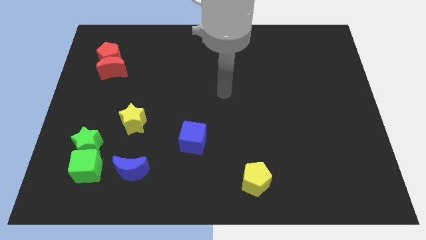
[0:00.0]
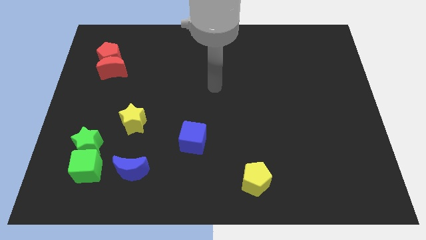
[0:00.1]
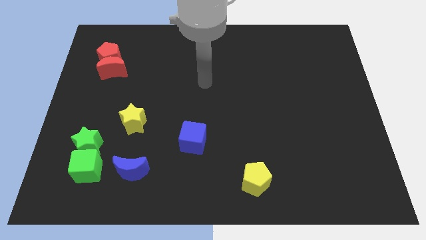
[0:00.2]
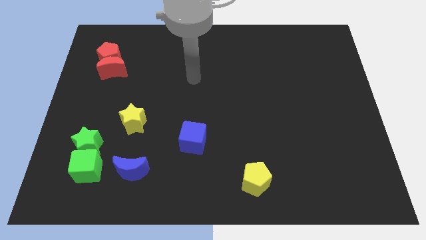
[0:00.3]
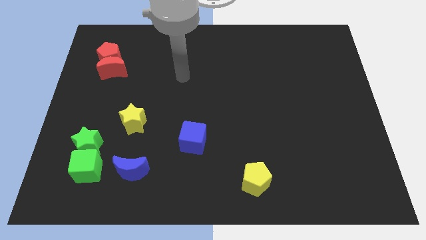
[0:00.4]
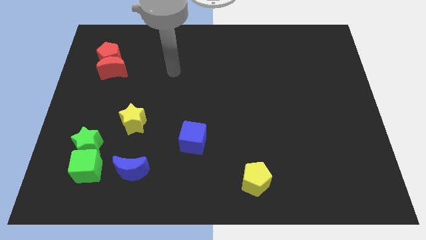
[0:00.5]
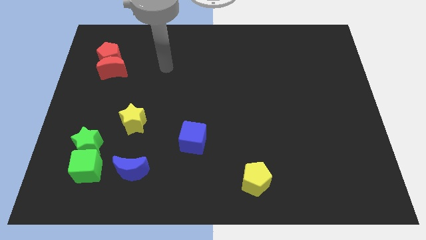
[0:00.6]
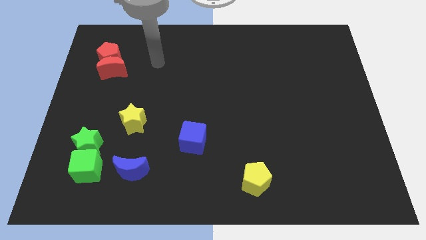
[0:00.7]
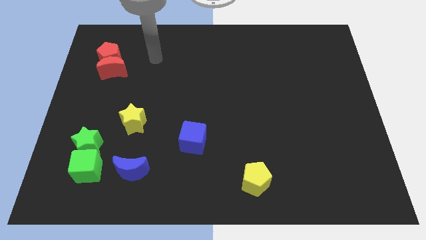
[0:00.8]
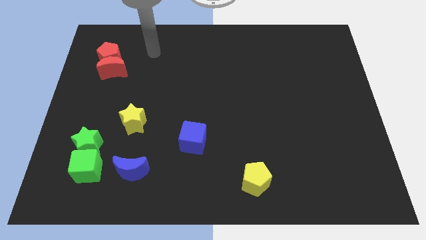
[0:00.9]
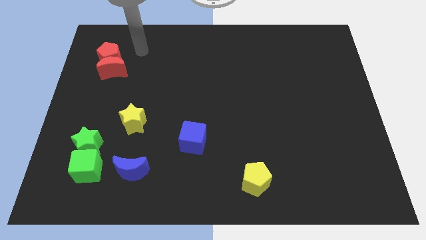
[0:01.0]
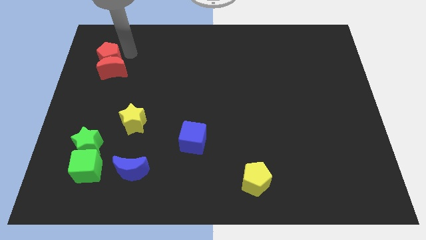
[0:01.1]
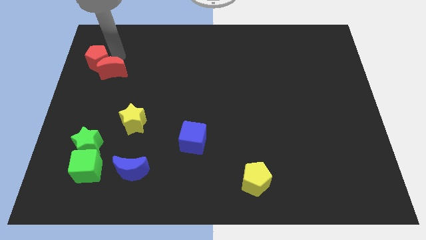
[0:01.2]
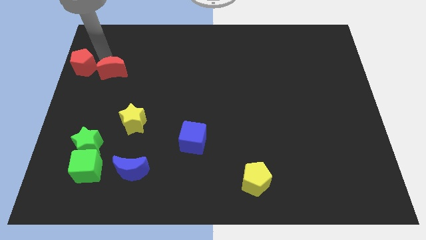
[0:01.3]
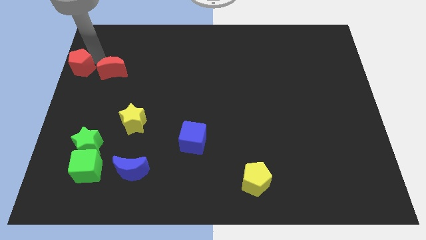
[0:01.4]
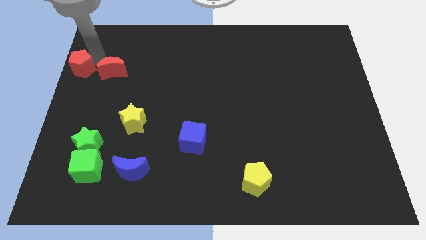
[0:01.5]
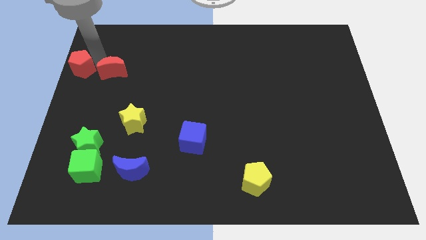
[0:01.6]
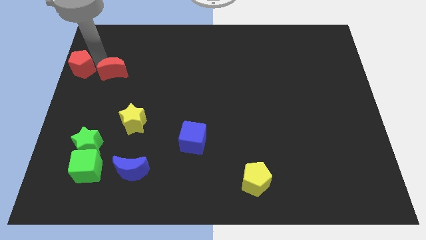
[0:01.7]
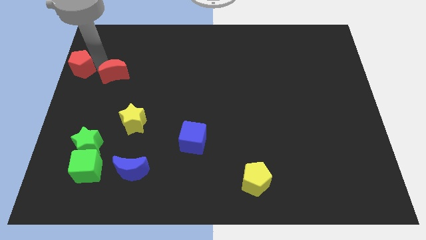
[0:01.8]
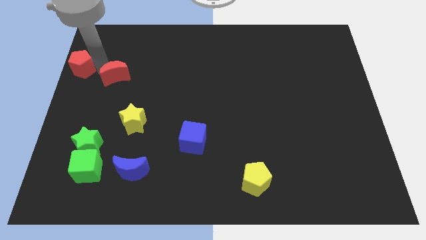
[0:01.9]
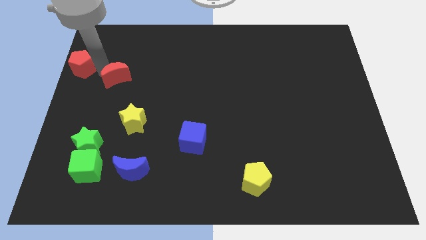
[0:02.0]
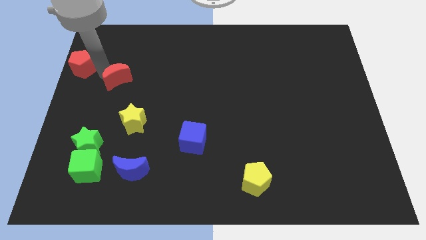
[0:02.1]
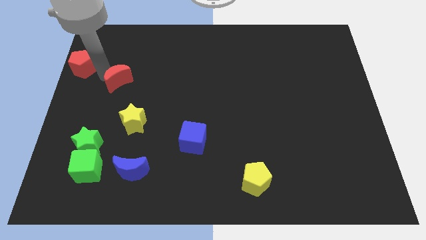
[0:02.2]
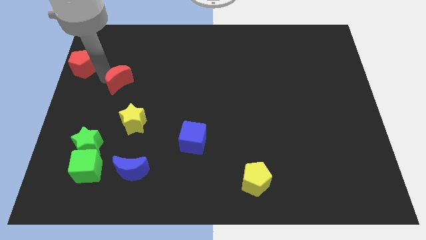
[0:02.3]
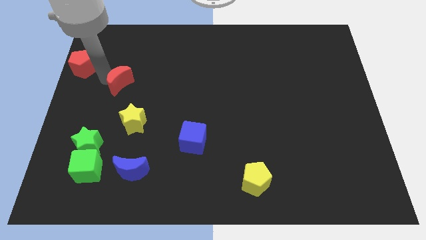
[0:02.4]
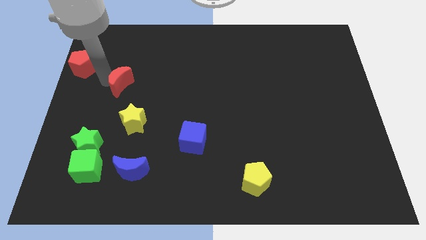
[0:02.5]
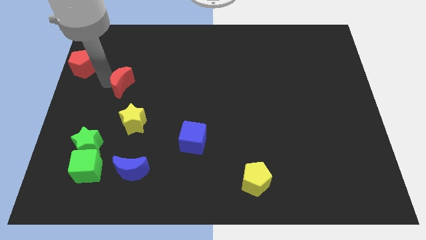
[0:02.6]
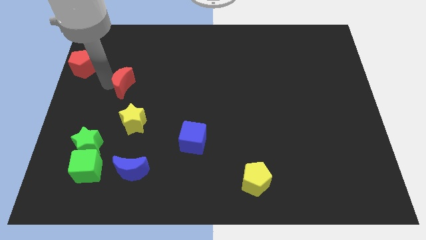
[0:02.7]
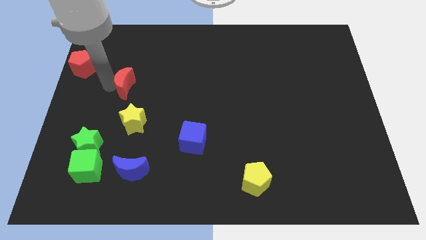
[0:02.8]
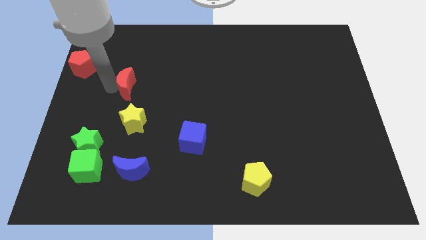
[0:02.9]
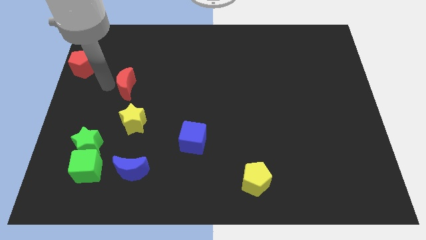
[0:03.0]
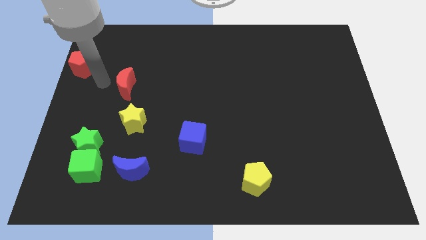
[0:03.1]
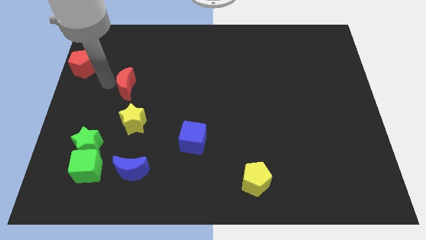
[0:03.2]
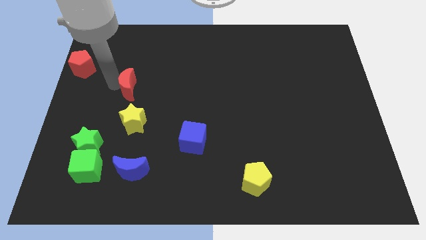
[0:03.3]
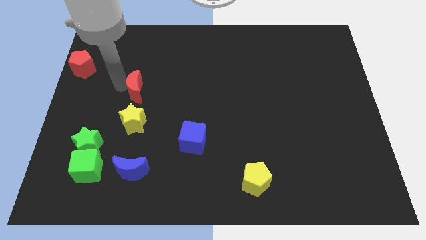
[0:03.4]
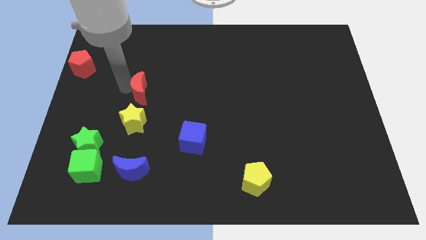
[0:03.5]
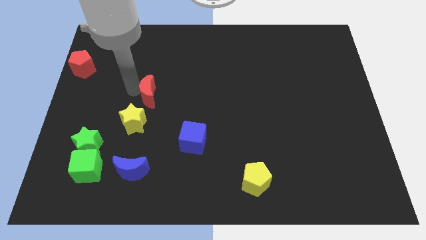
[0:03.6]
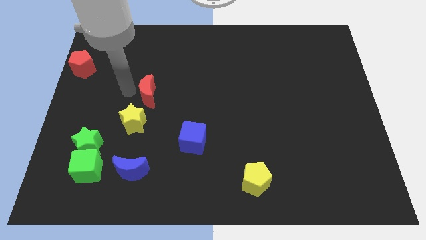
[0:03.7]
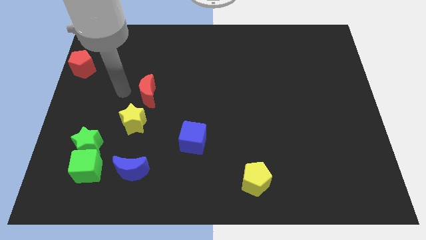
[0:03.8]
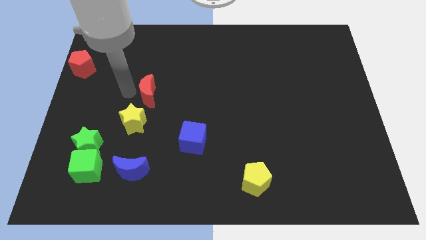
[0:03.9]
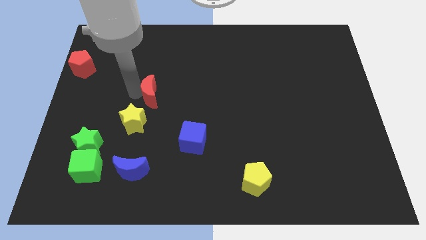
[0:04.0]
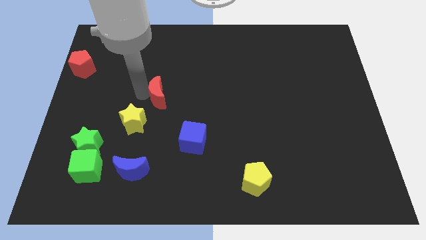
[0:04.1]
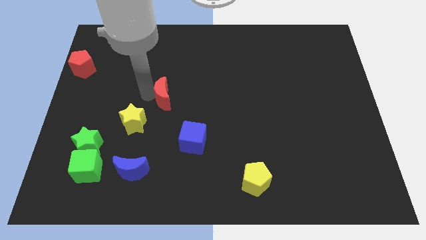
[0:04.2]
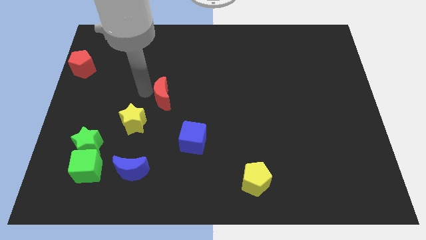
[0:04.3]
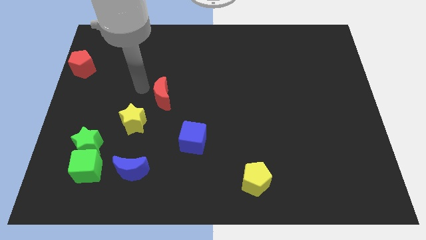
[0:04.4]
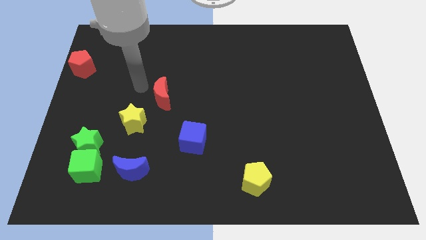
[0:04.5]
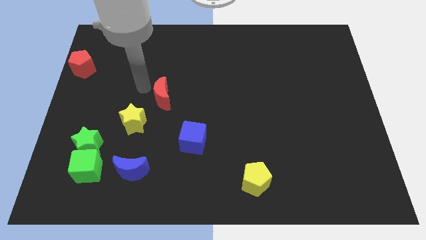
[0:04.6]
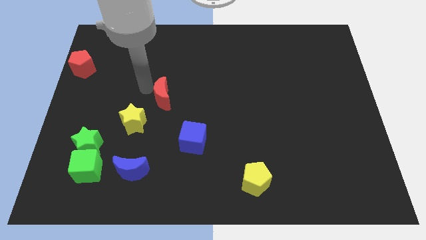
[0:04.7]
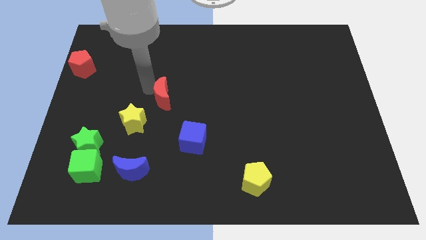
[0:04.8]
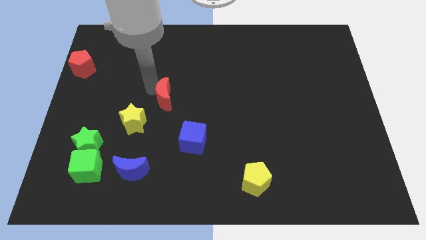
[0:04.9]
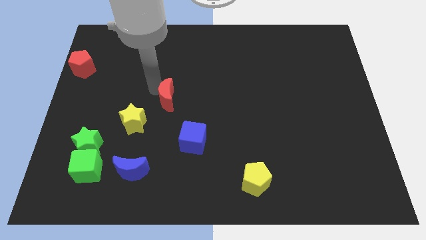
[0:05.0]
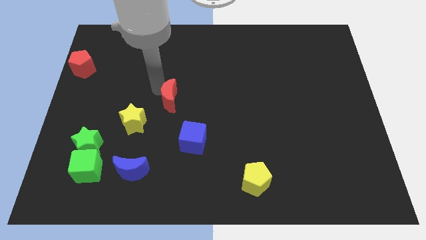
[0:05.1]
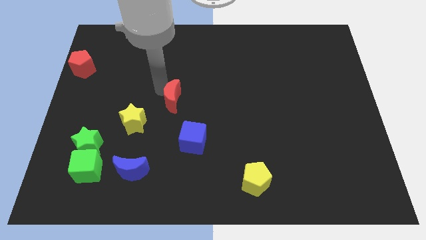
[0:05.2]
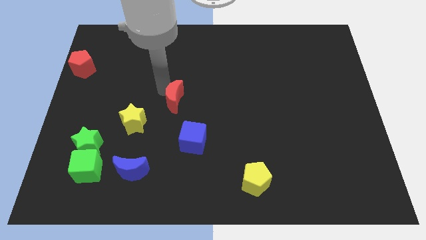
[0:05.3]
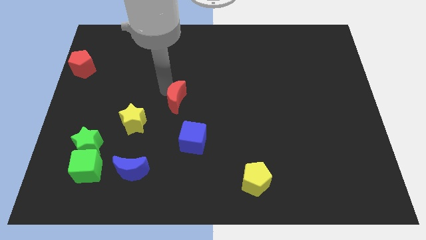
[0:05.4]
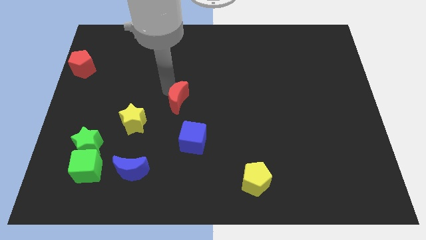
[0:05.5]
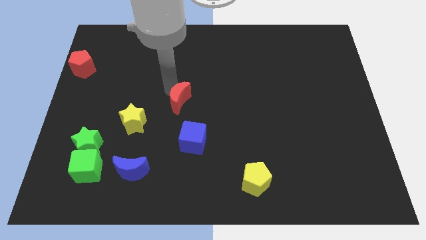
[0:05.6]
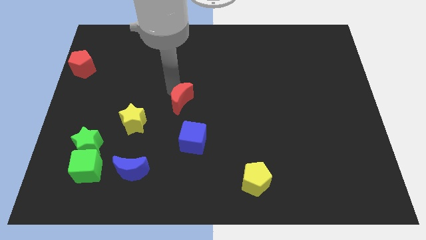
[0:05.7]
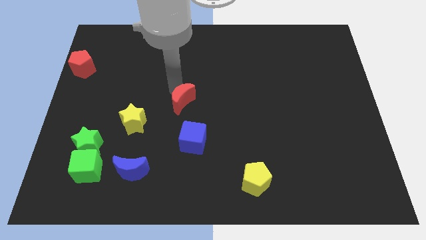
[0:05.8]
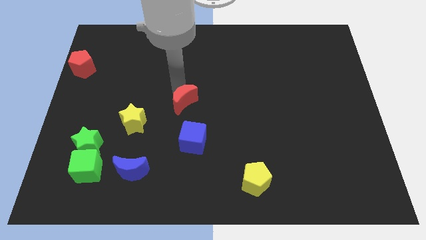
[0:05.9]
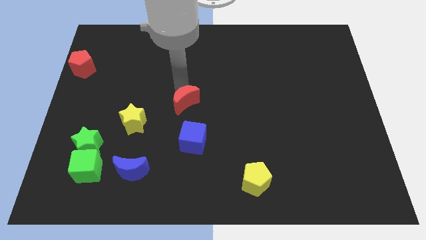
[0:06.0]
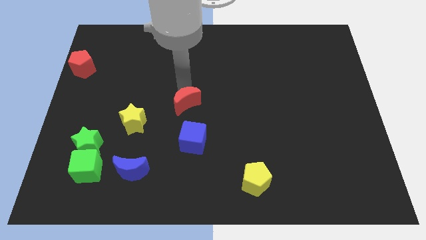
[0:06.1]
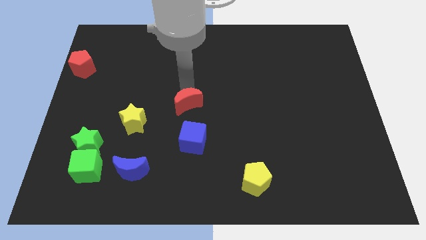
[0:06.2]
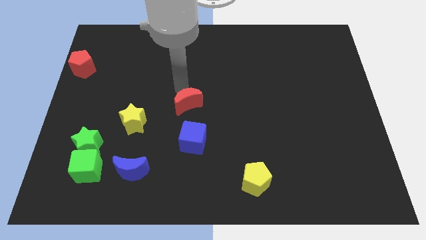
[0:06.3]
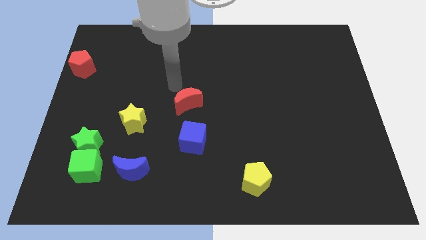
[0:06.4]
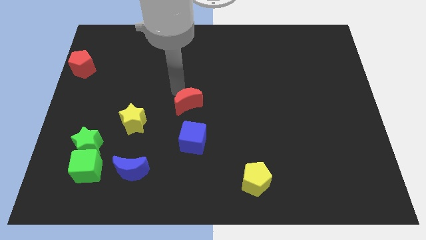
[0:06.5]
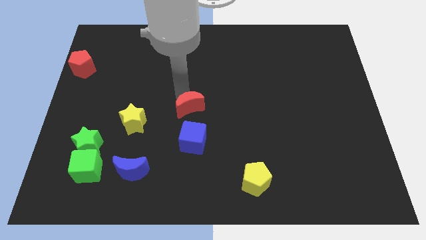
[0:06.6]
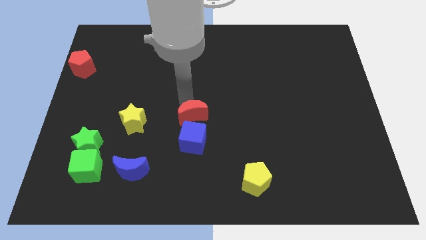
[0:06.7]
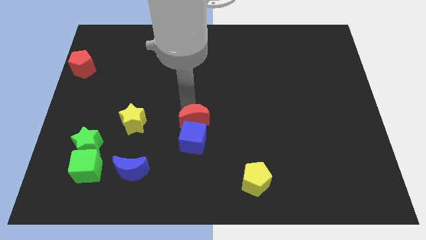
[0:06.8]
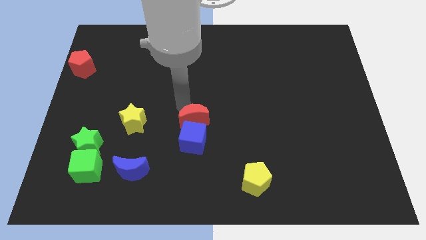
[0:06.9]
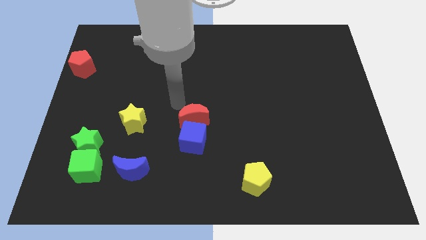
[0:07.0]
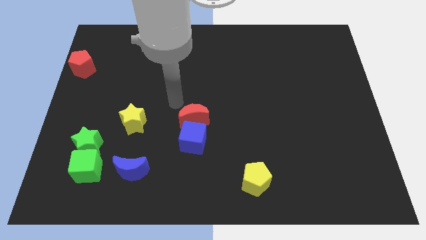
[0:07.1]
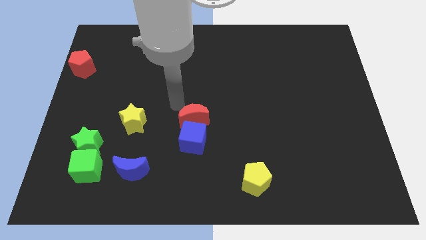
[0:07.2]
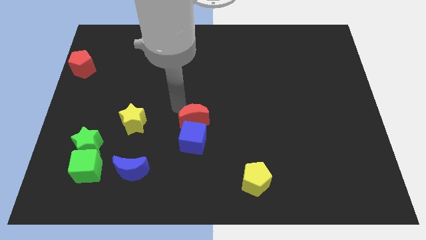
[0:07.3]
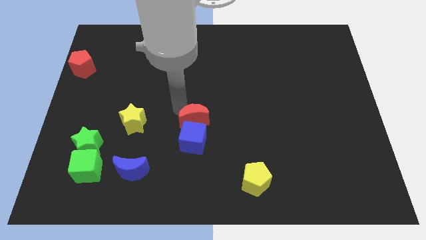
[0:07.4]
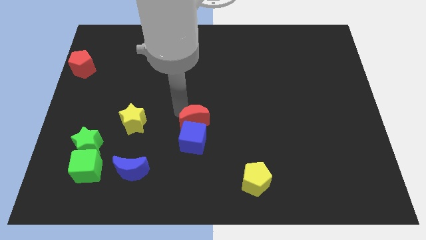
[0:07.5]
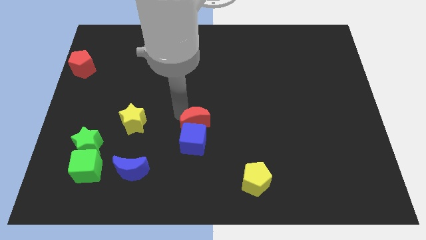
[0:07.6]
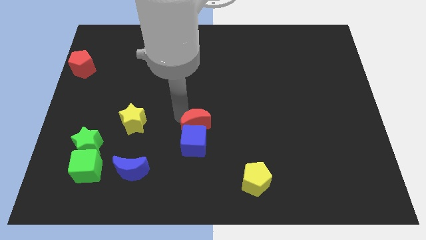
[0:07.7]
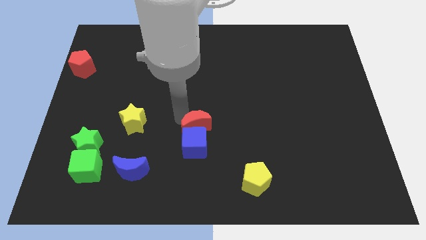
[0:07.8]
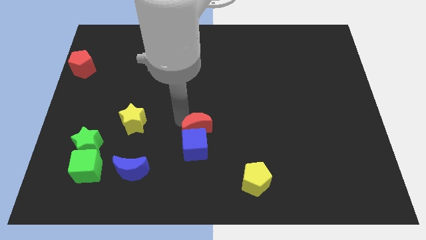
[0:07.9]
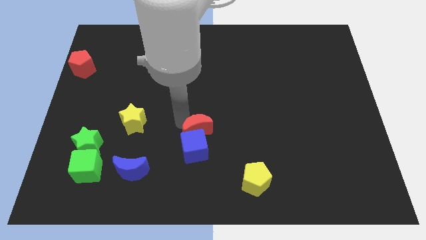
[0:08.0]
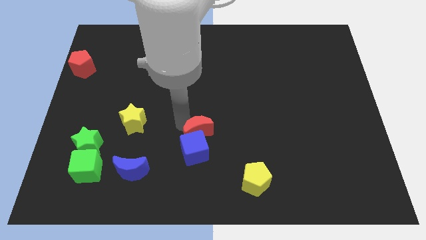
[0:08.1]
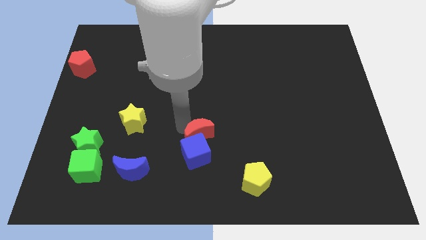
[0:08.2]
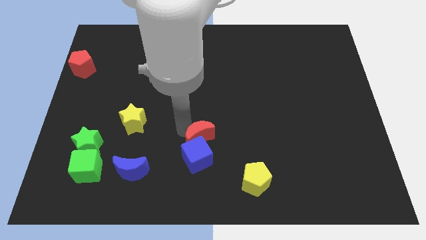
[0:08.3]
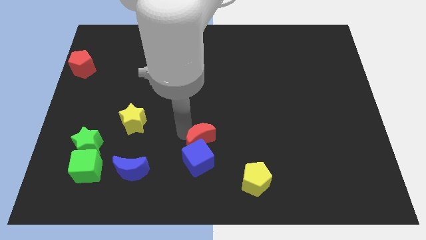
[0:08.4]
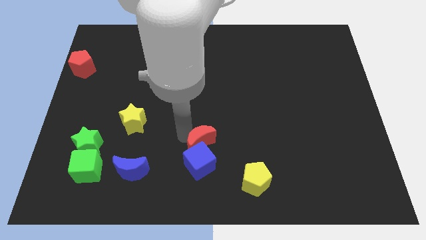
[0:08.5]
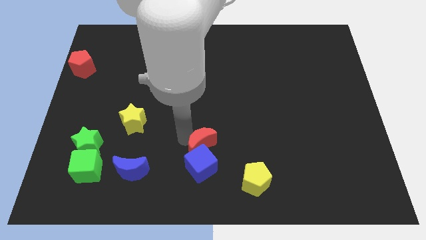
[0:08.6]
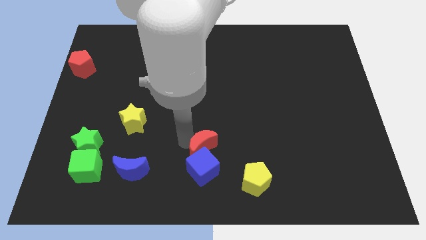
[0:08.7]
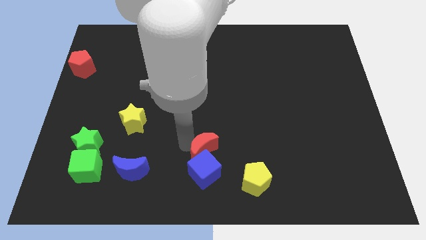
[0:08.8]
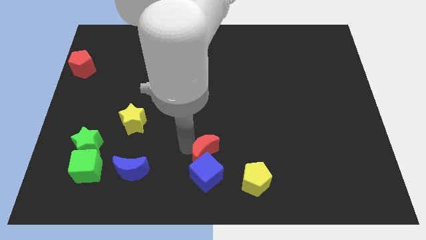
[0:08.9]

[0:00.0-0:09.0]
put the red moon diagonally up and to the left of the yellow pentagon
